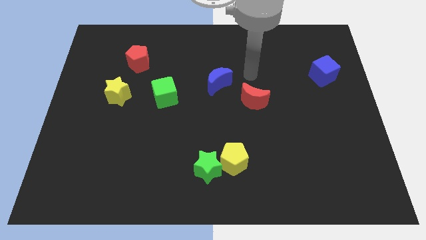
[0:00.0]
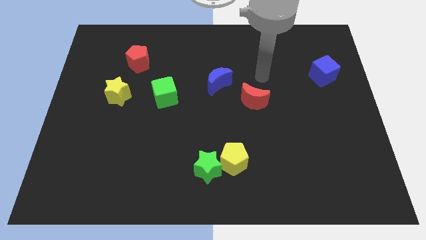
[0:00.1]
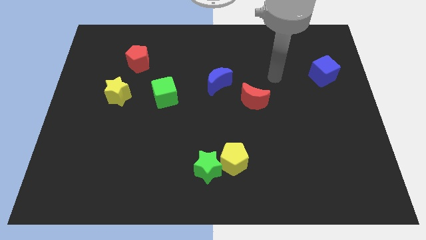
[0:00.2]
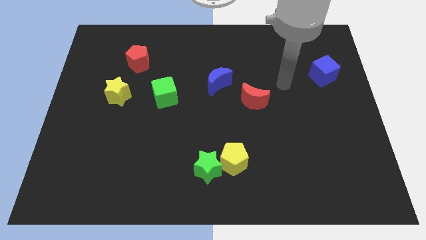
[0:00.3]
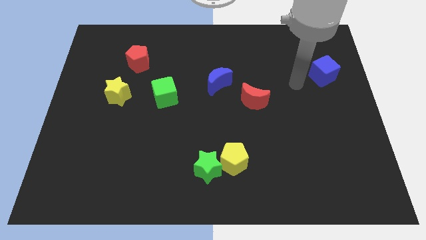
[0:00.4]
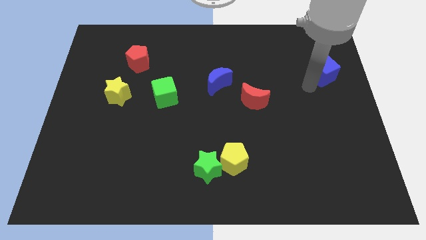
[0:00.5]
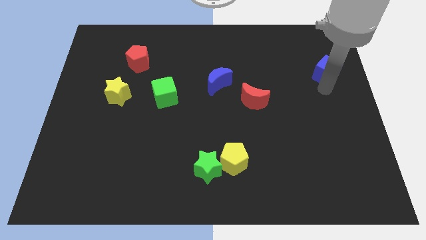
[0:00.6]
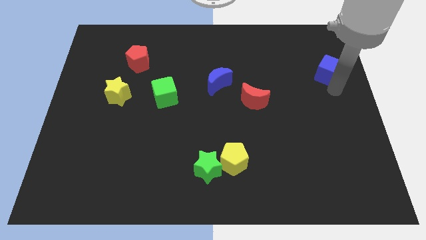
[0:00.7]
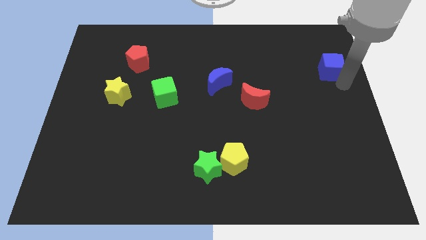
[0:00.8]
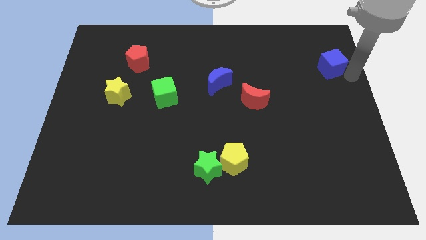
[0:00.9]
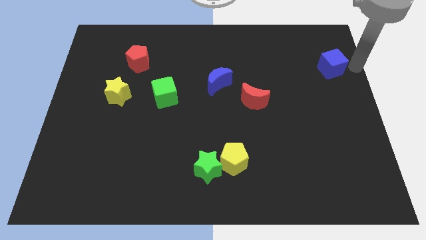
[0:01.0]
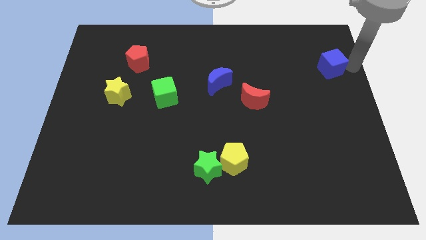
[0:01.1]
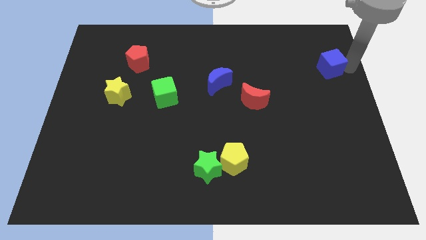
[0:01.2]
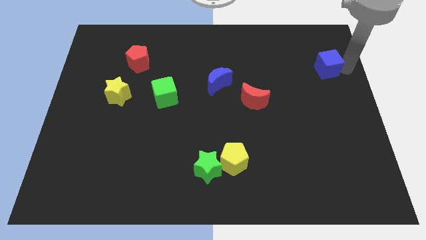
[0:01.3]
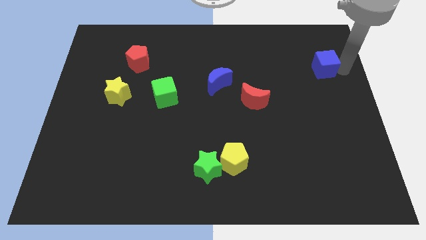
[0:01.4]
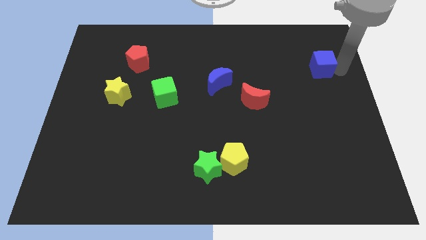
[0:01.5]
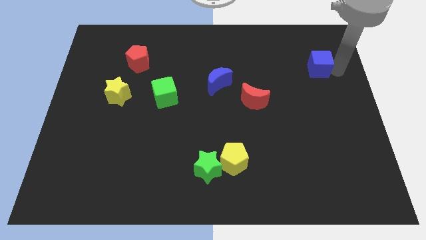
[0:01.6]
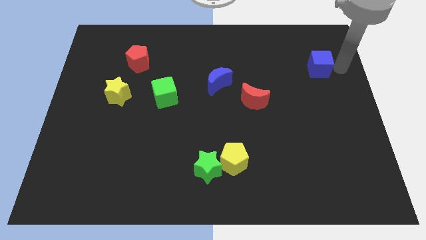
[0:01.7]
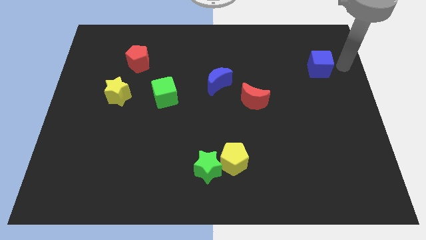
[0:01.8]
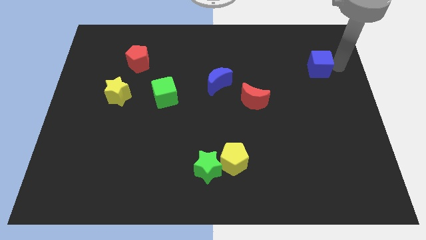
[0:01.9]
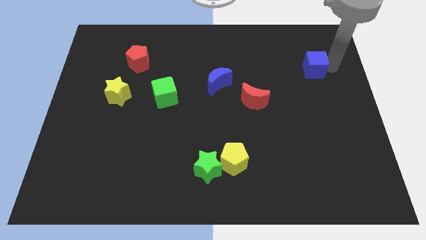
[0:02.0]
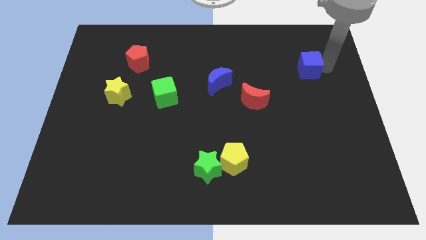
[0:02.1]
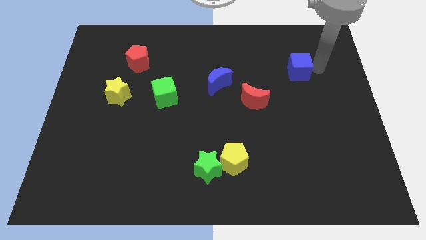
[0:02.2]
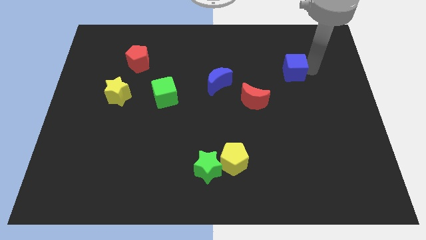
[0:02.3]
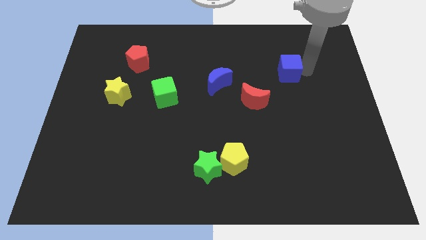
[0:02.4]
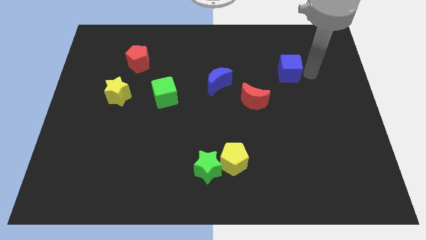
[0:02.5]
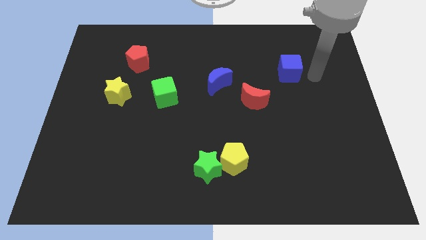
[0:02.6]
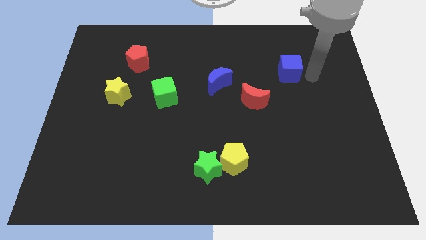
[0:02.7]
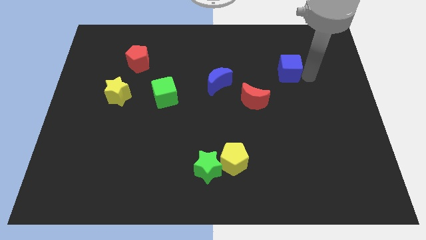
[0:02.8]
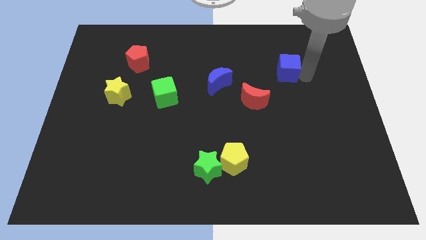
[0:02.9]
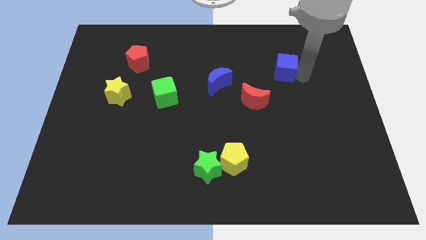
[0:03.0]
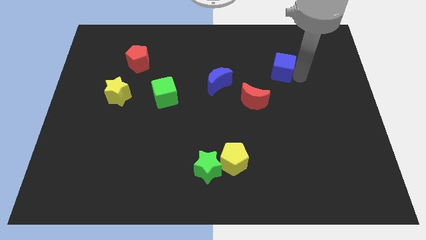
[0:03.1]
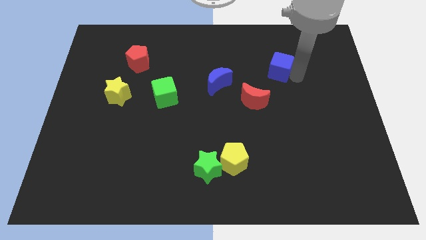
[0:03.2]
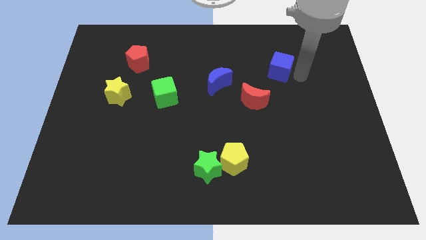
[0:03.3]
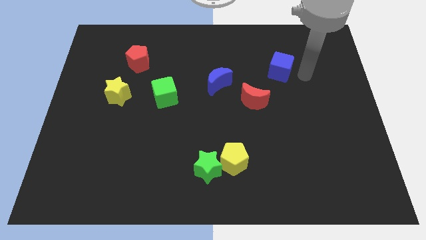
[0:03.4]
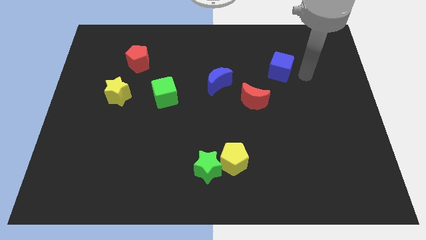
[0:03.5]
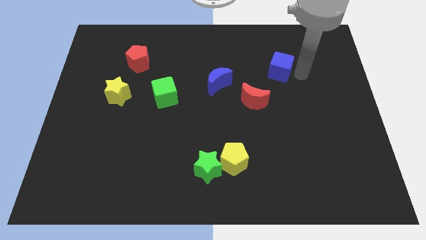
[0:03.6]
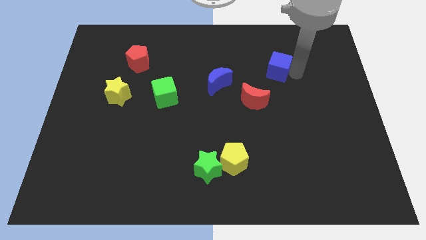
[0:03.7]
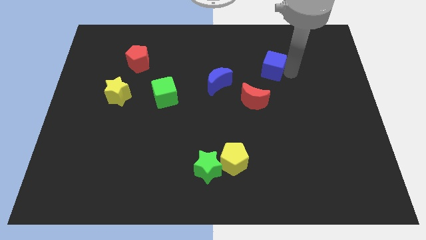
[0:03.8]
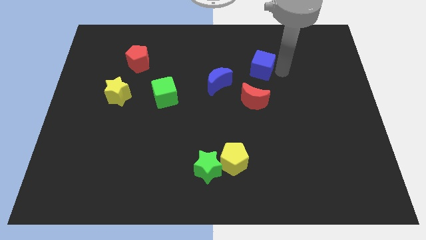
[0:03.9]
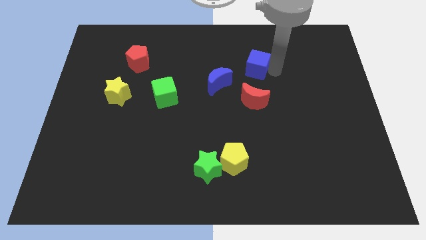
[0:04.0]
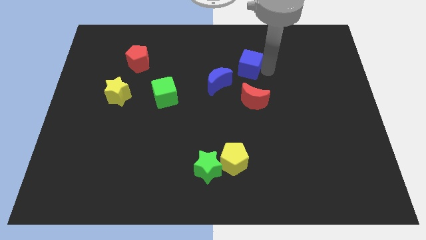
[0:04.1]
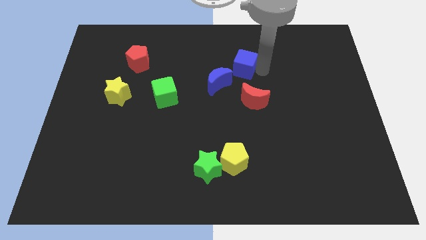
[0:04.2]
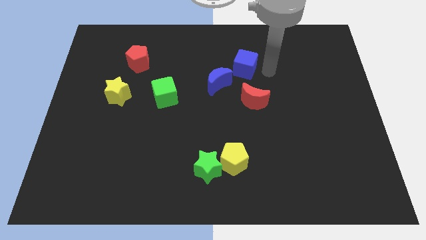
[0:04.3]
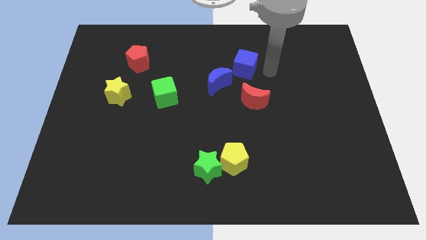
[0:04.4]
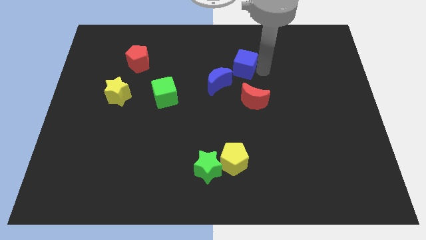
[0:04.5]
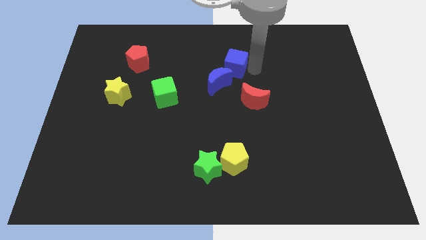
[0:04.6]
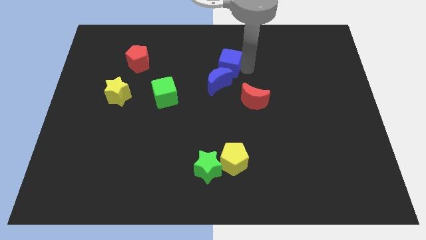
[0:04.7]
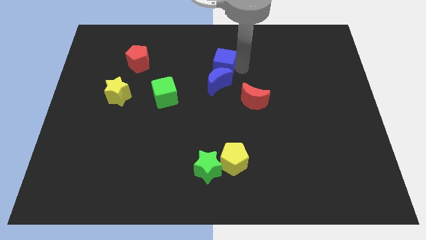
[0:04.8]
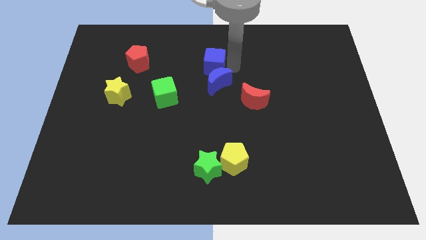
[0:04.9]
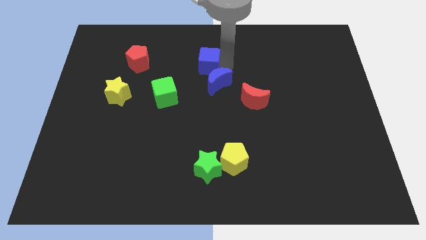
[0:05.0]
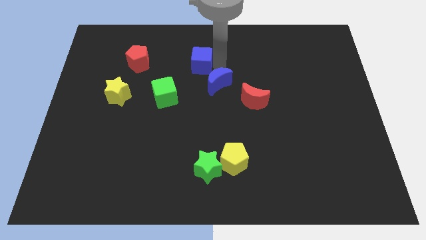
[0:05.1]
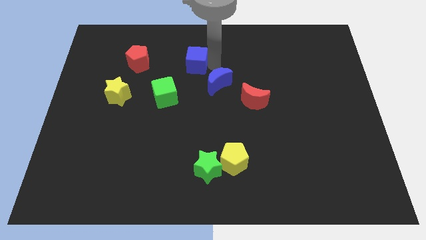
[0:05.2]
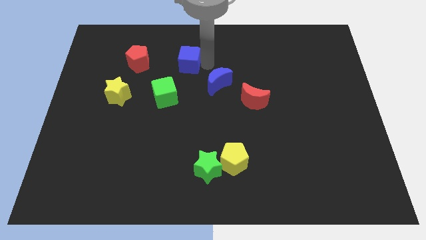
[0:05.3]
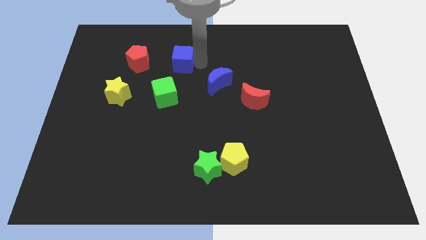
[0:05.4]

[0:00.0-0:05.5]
slide the blue cube above the green cube
